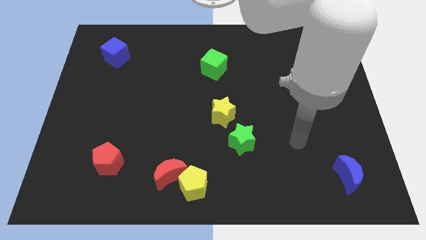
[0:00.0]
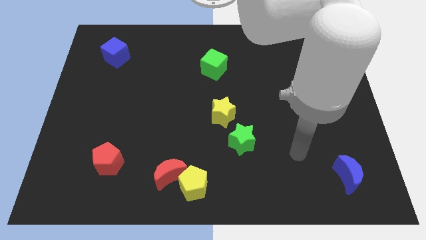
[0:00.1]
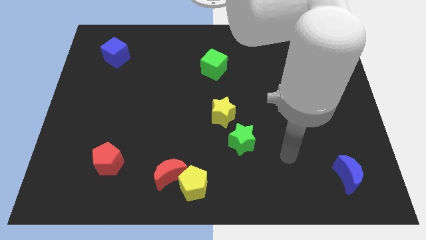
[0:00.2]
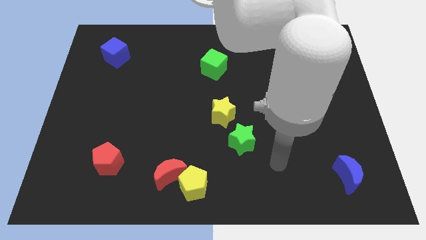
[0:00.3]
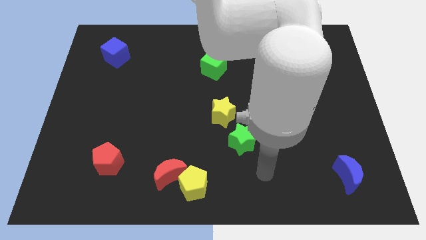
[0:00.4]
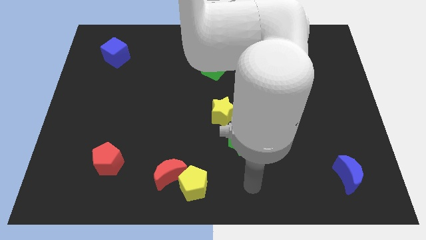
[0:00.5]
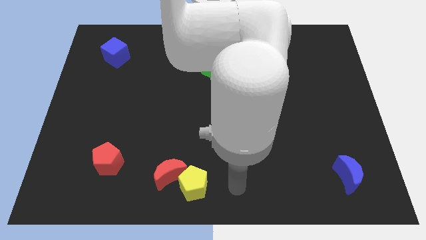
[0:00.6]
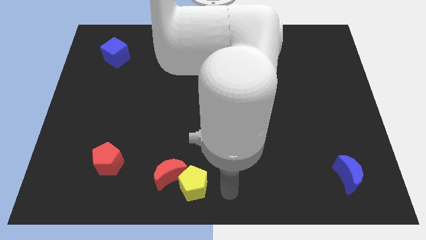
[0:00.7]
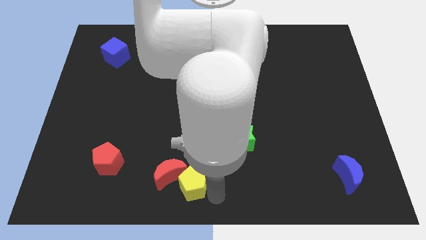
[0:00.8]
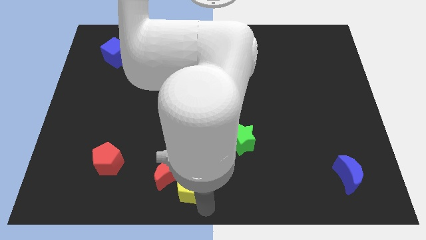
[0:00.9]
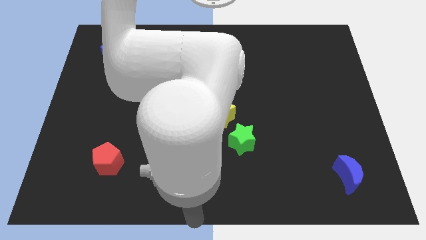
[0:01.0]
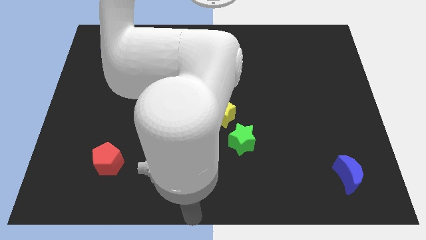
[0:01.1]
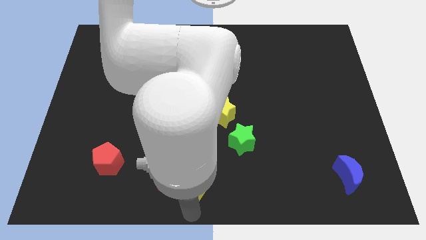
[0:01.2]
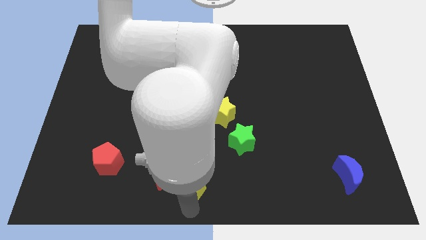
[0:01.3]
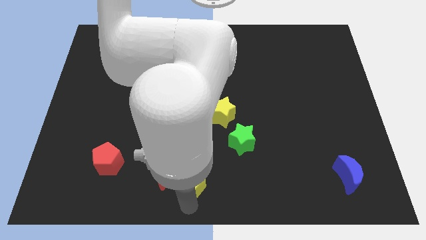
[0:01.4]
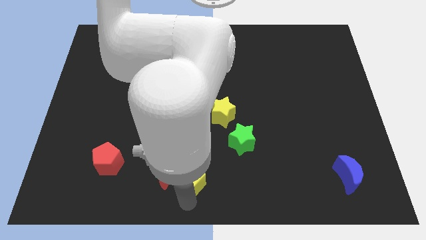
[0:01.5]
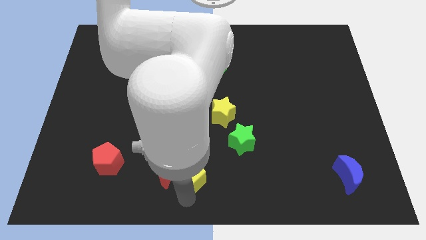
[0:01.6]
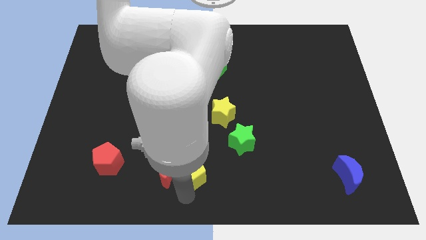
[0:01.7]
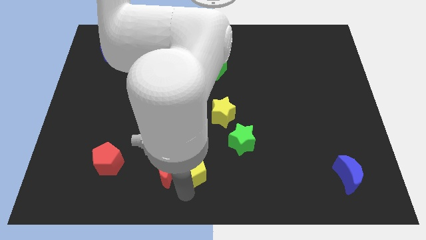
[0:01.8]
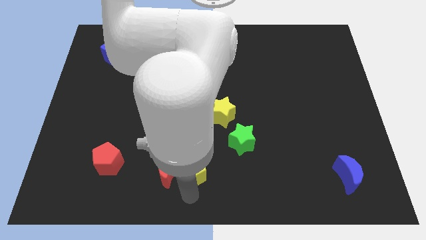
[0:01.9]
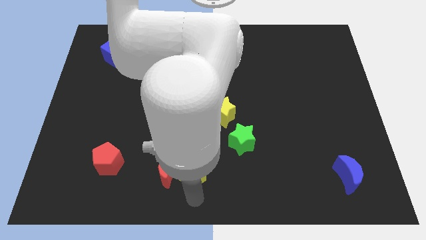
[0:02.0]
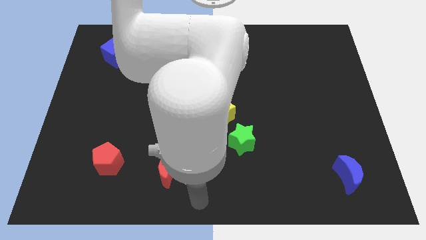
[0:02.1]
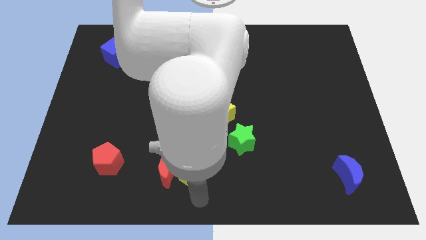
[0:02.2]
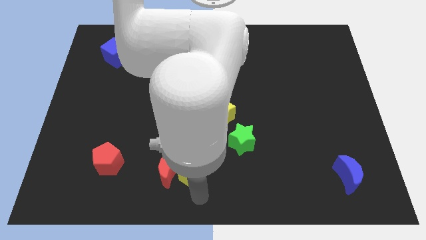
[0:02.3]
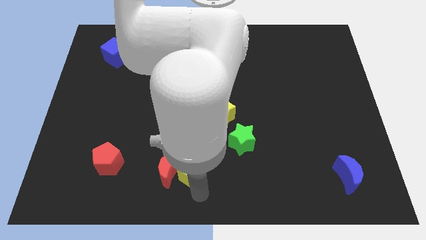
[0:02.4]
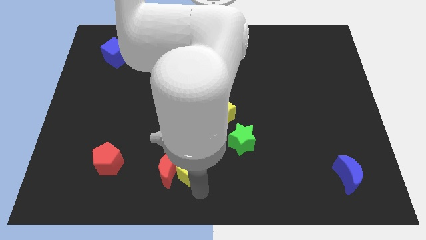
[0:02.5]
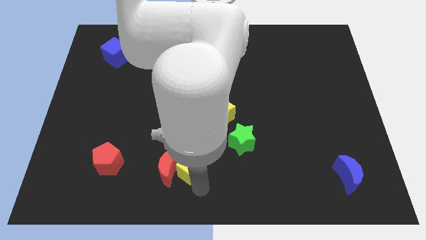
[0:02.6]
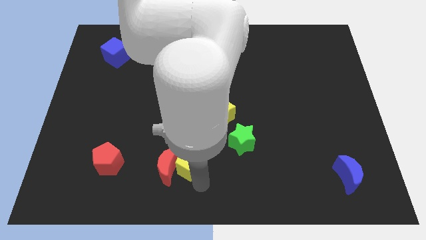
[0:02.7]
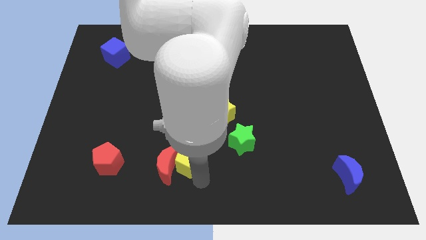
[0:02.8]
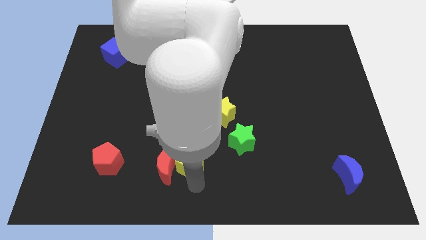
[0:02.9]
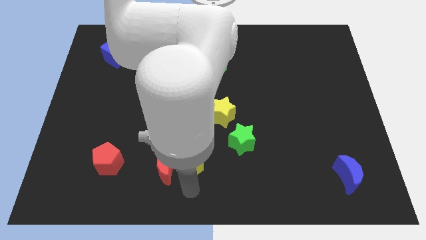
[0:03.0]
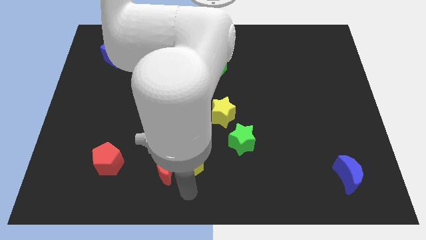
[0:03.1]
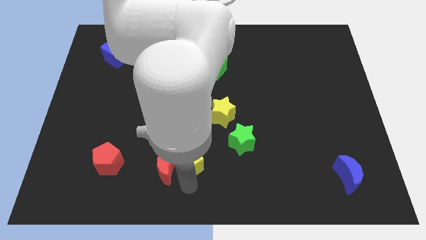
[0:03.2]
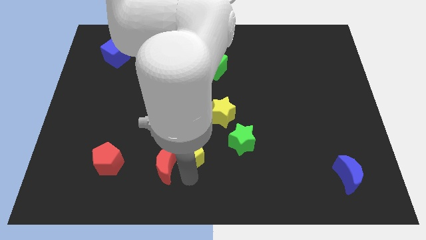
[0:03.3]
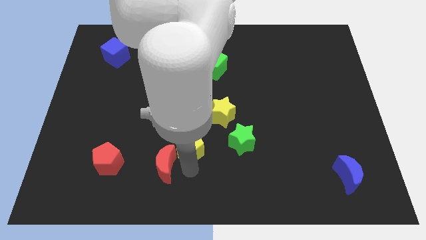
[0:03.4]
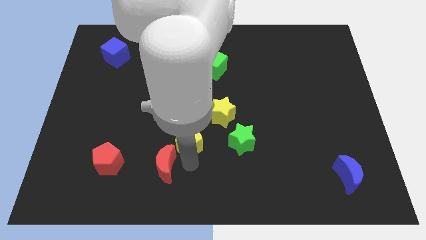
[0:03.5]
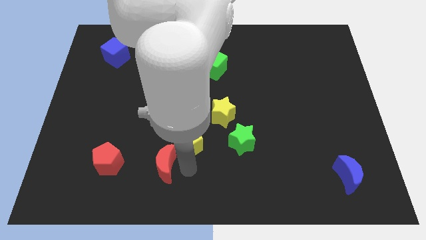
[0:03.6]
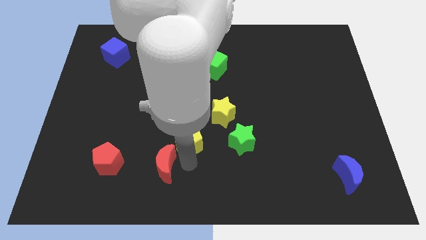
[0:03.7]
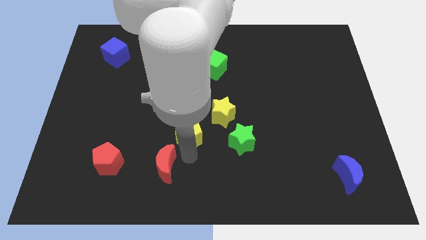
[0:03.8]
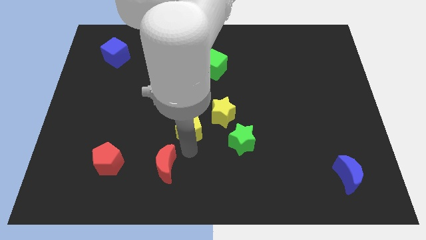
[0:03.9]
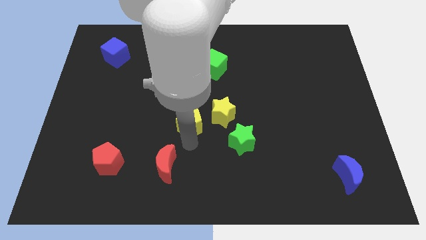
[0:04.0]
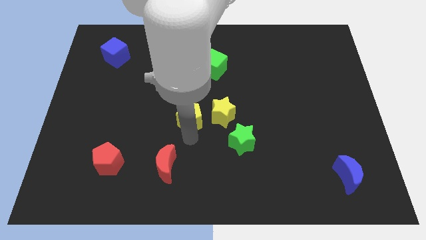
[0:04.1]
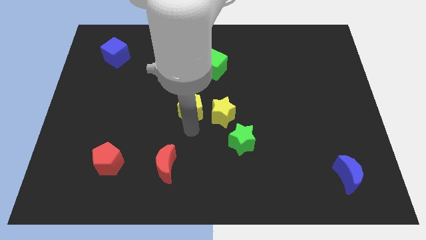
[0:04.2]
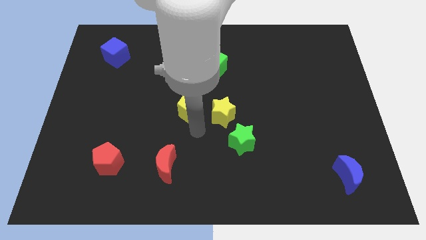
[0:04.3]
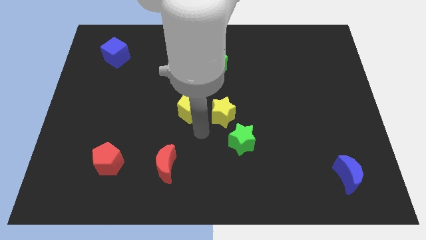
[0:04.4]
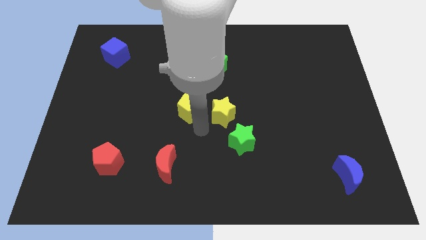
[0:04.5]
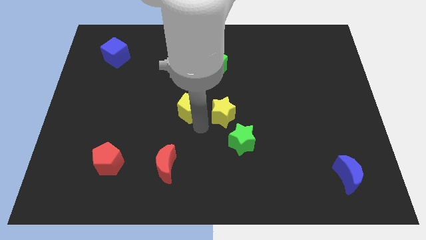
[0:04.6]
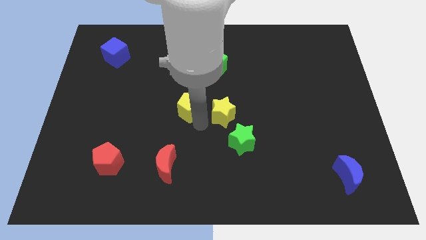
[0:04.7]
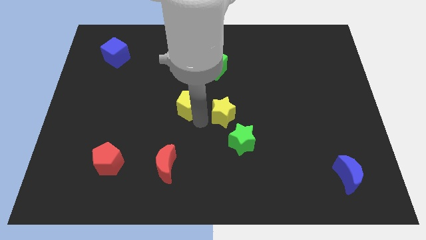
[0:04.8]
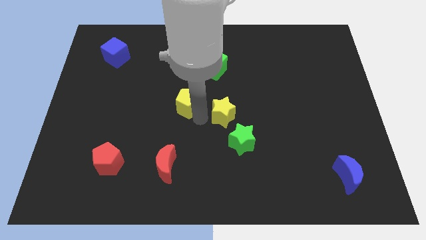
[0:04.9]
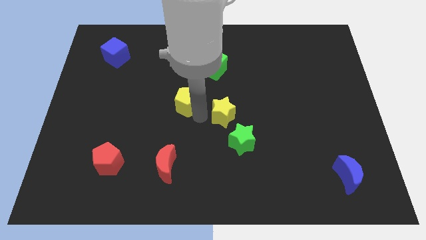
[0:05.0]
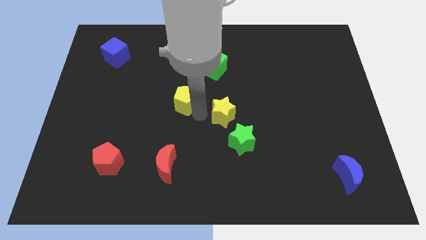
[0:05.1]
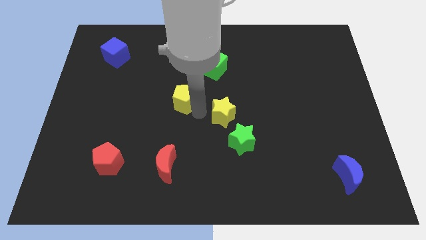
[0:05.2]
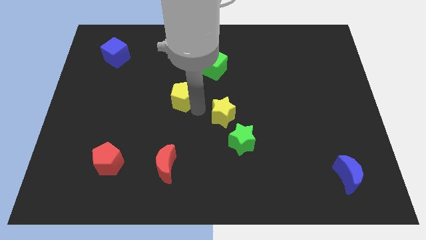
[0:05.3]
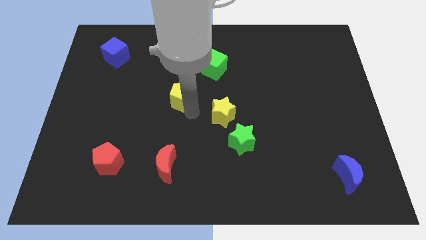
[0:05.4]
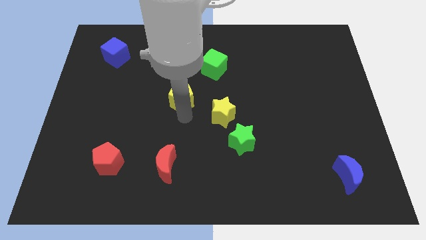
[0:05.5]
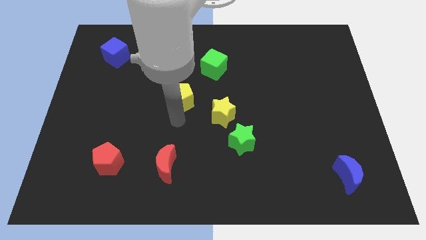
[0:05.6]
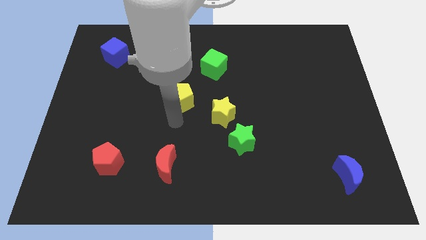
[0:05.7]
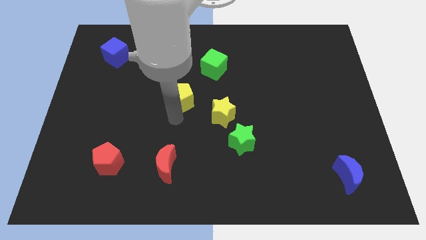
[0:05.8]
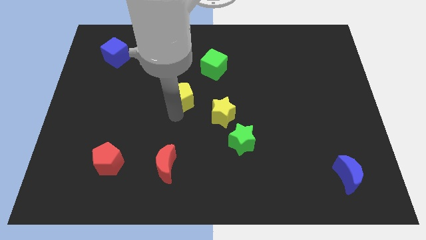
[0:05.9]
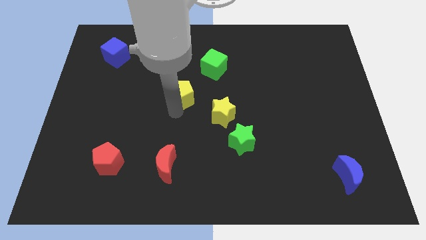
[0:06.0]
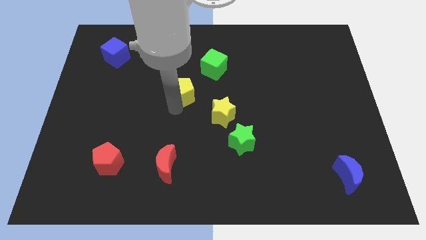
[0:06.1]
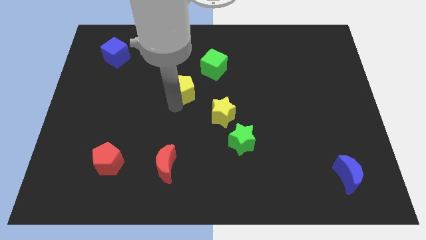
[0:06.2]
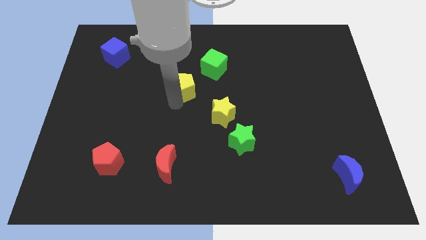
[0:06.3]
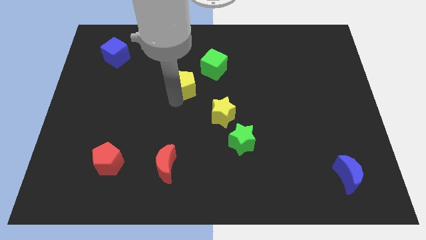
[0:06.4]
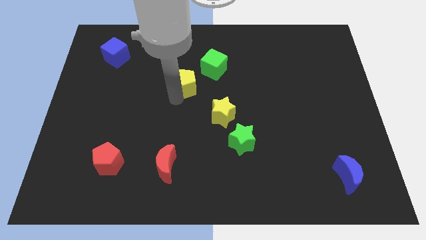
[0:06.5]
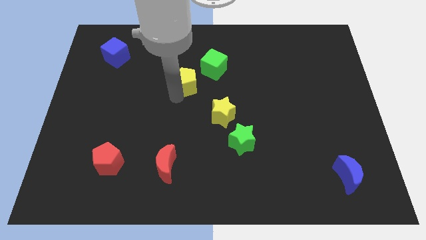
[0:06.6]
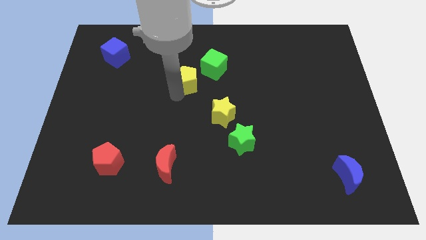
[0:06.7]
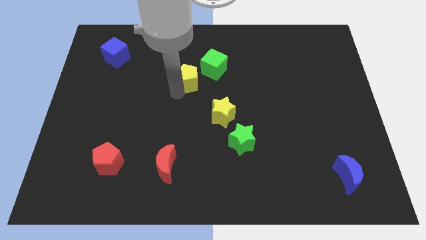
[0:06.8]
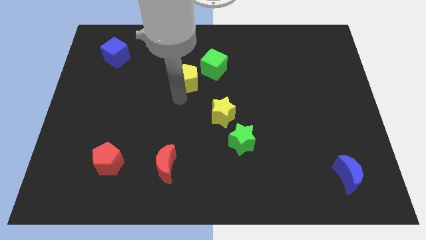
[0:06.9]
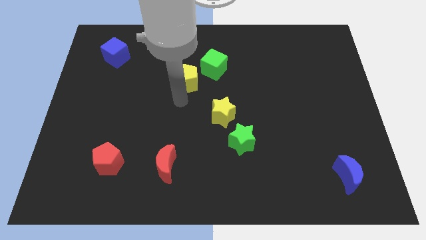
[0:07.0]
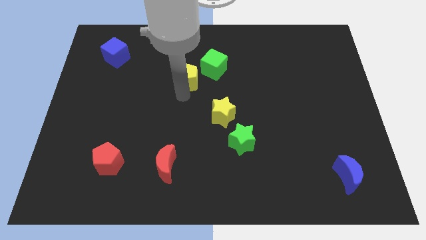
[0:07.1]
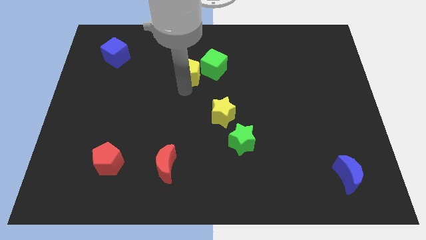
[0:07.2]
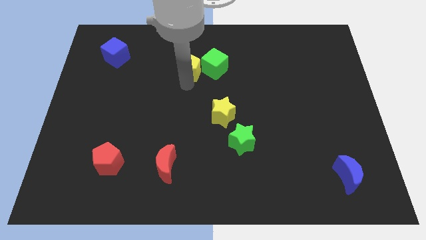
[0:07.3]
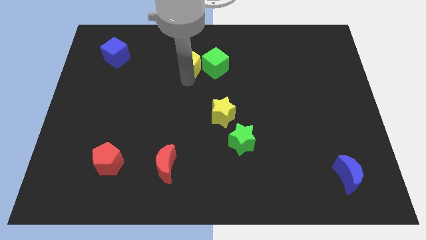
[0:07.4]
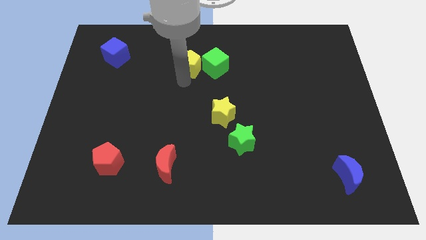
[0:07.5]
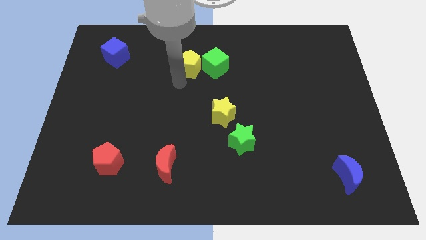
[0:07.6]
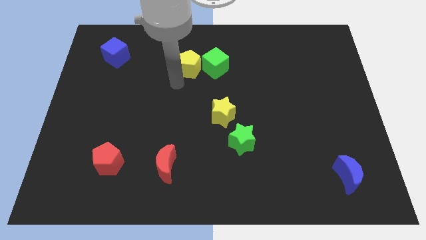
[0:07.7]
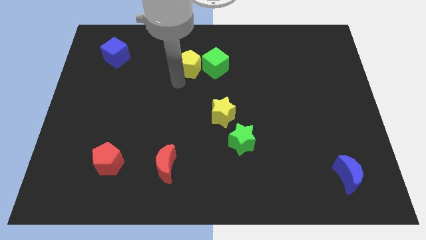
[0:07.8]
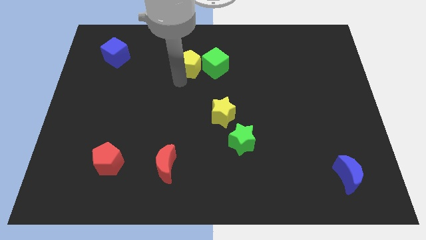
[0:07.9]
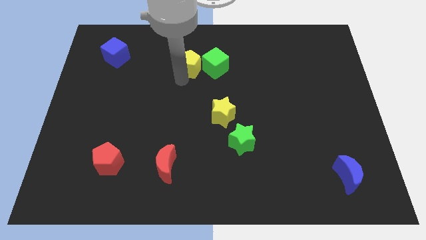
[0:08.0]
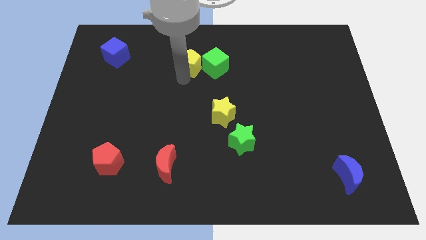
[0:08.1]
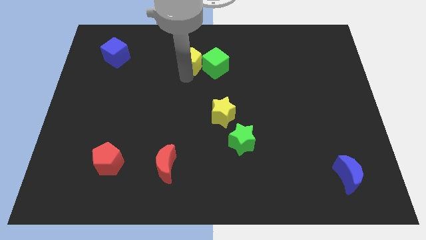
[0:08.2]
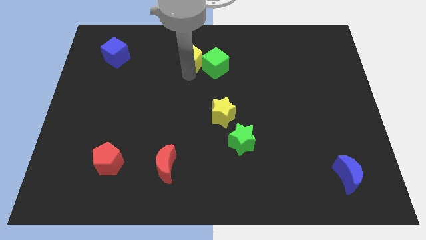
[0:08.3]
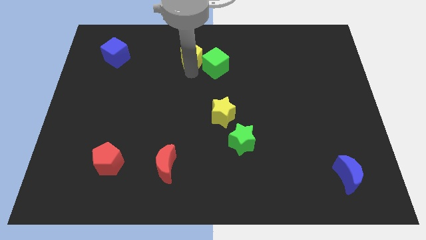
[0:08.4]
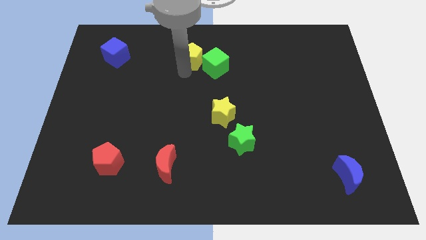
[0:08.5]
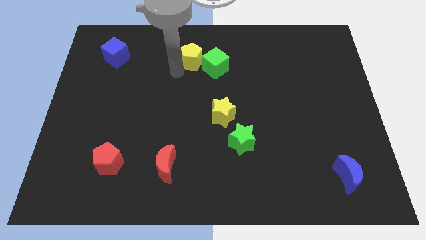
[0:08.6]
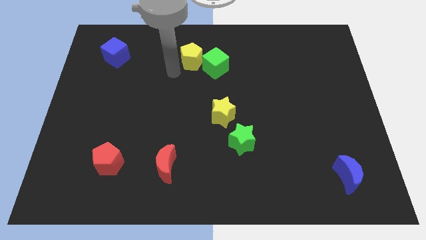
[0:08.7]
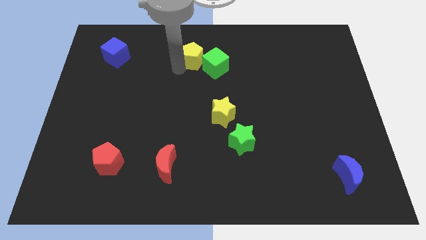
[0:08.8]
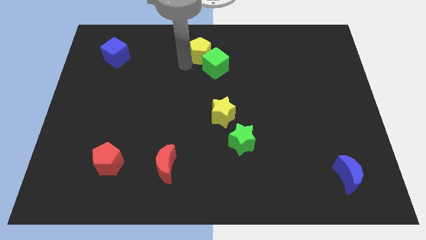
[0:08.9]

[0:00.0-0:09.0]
push the yellow pentagon to the towards your base
